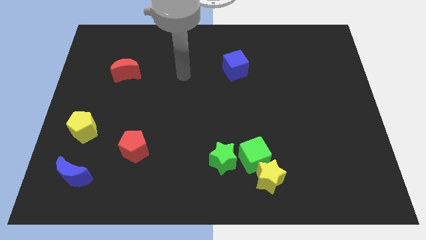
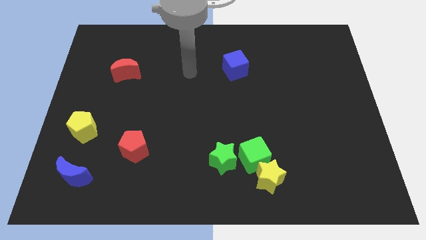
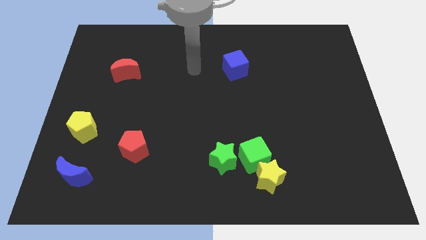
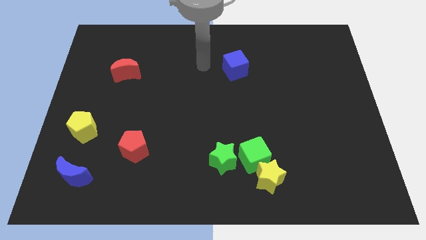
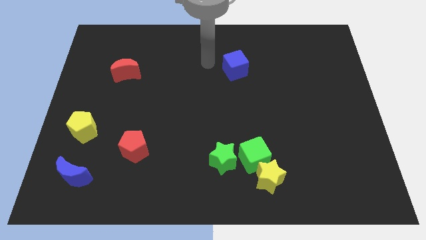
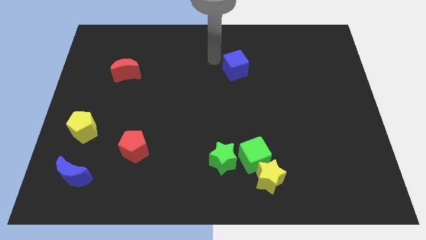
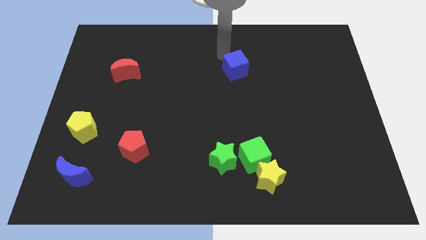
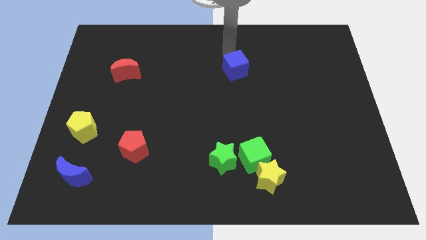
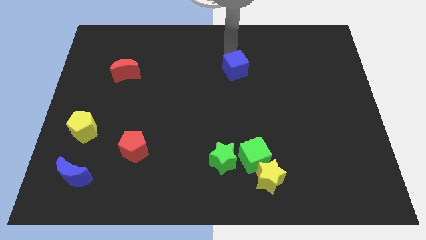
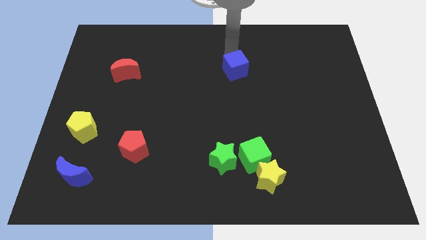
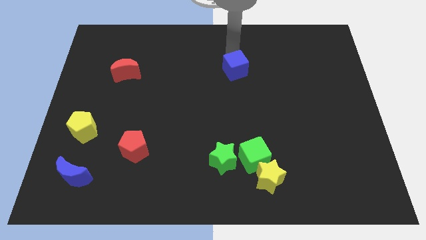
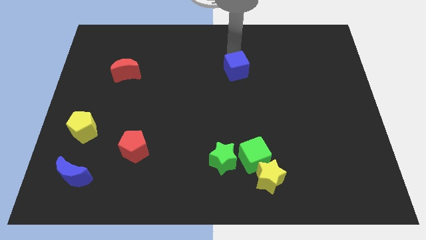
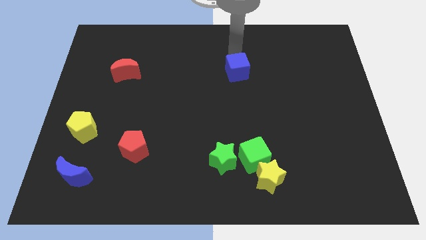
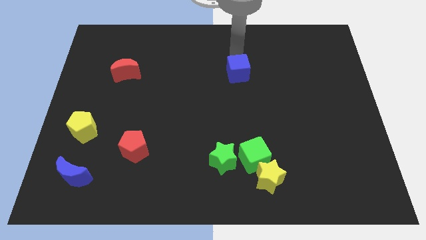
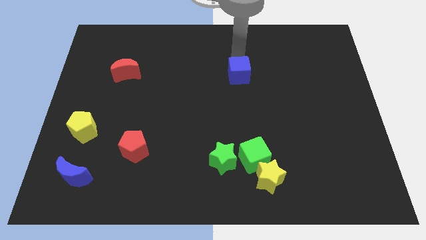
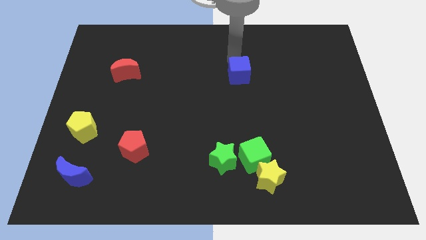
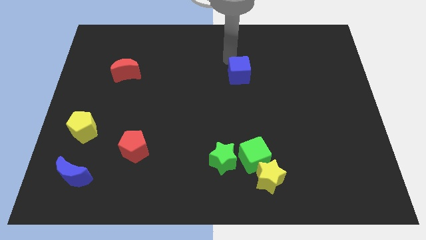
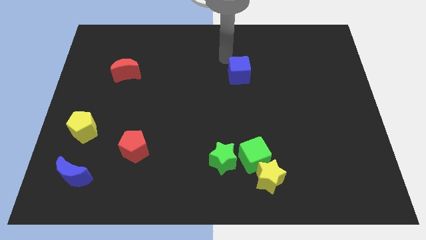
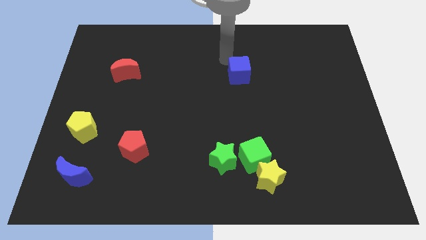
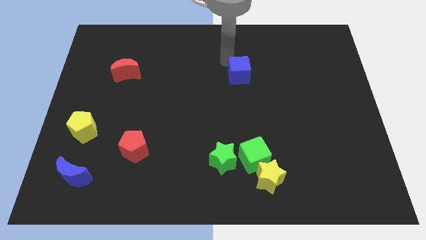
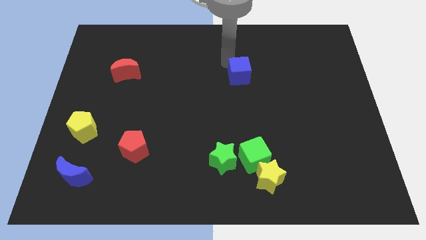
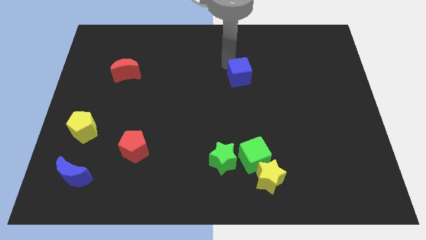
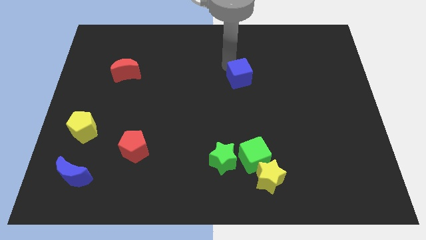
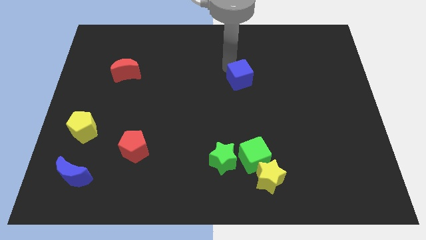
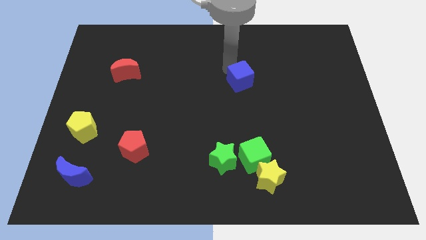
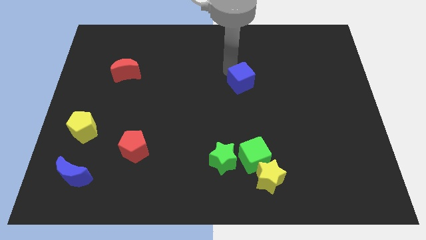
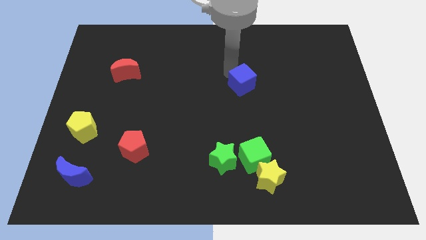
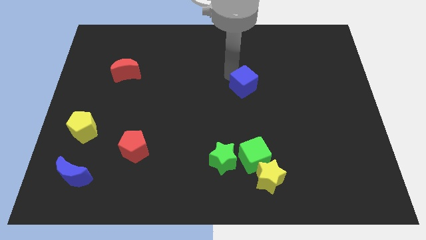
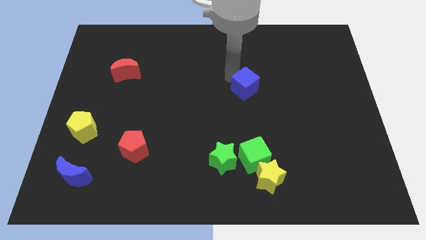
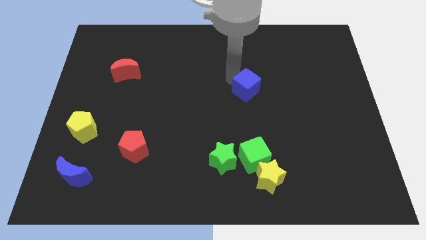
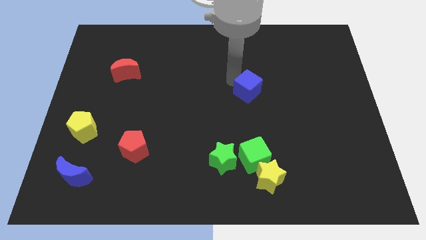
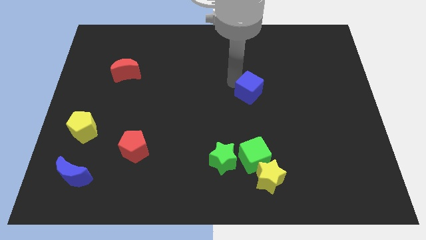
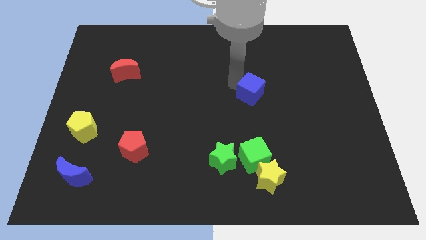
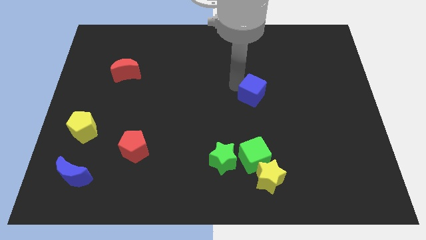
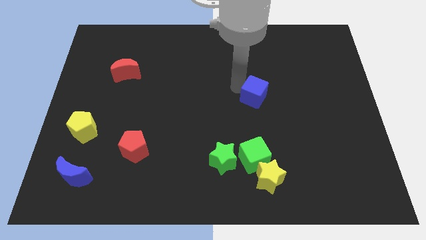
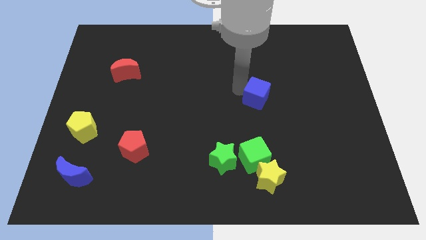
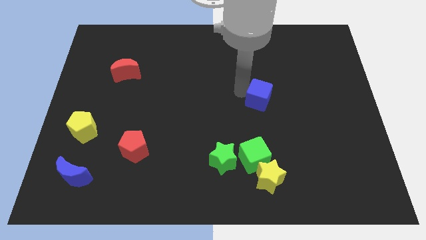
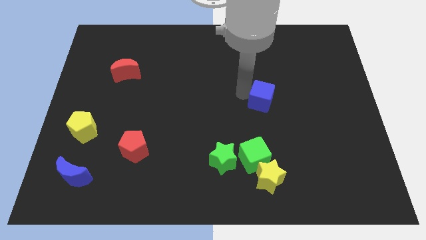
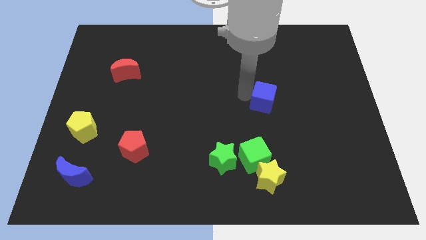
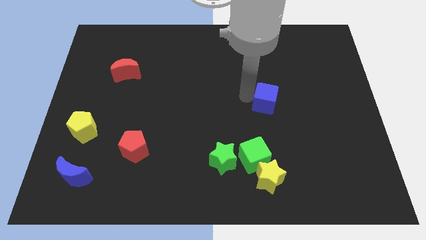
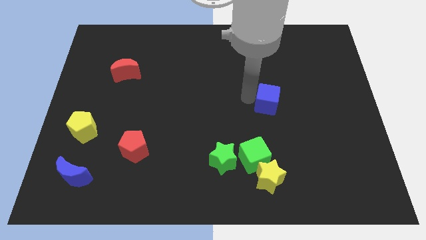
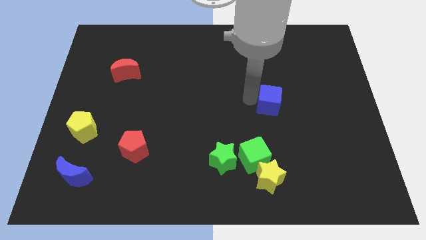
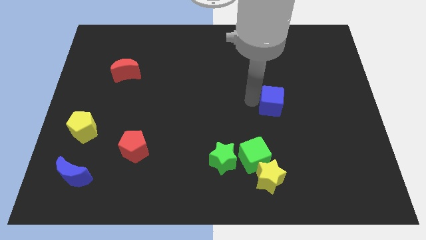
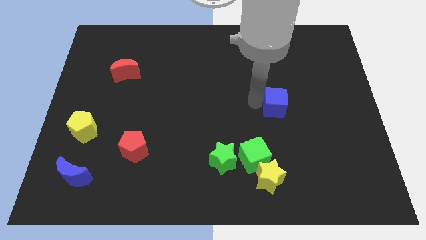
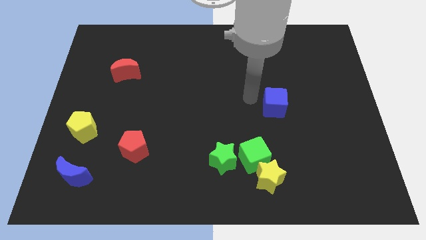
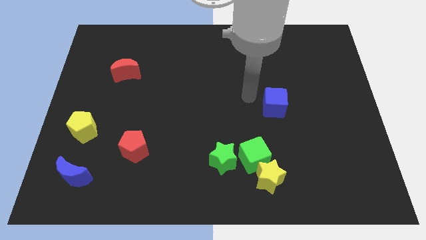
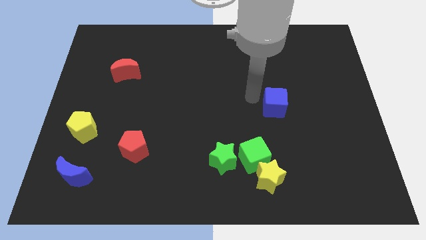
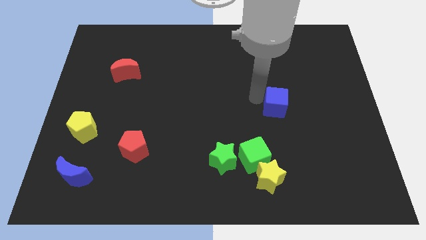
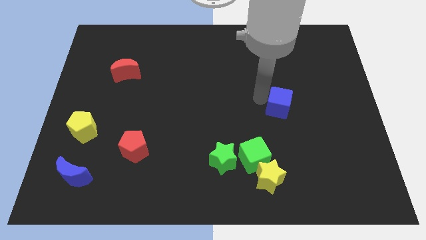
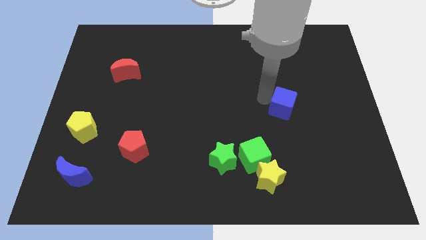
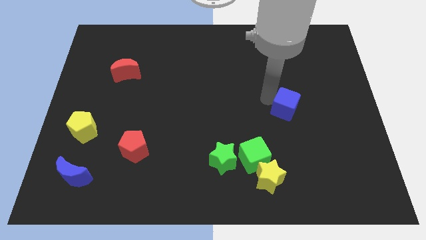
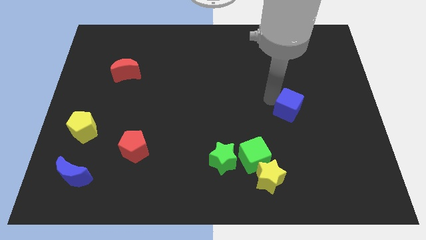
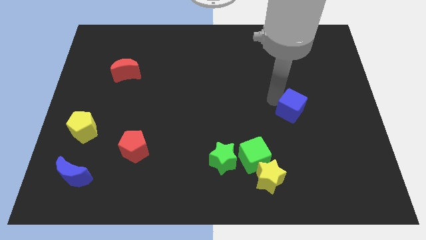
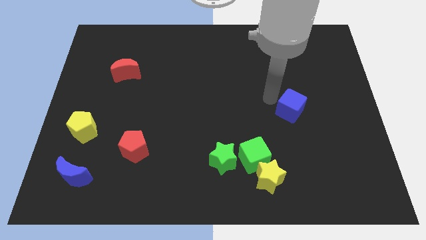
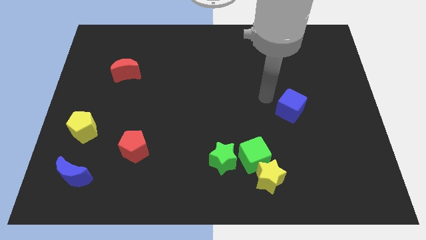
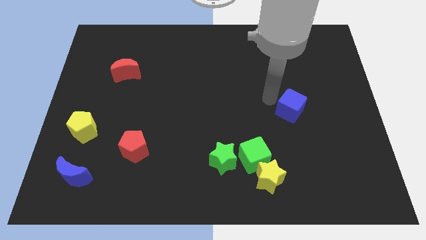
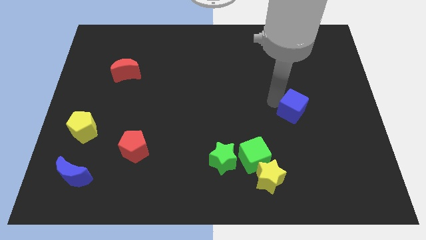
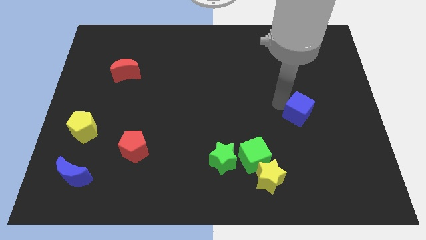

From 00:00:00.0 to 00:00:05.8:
slide the blue cube downwards and to the right

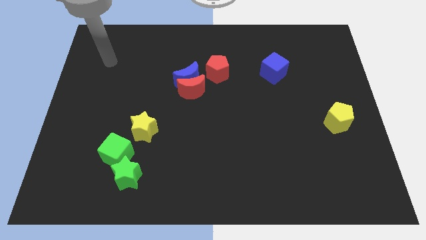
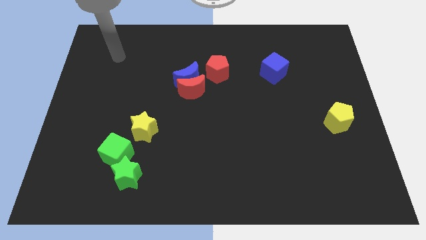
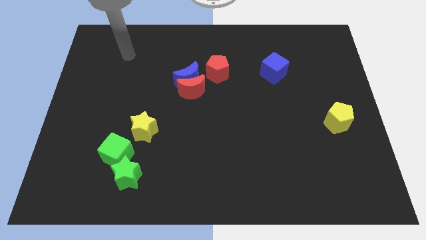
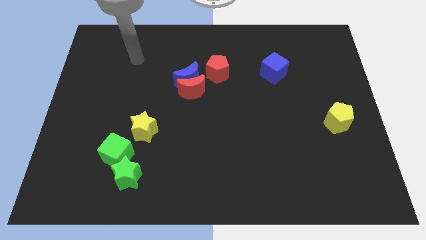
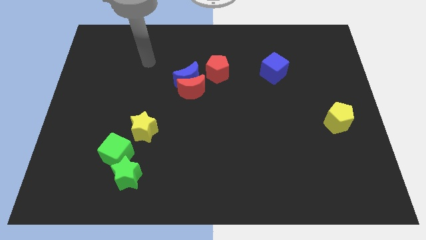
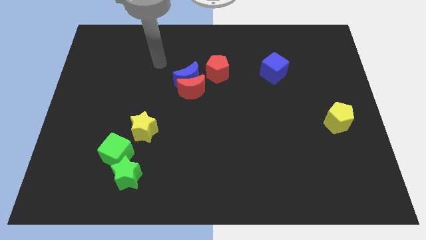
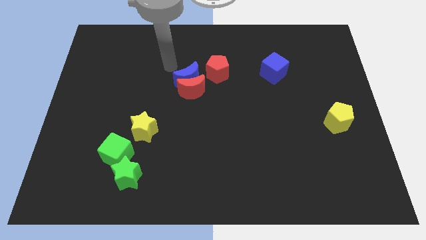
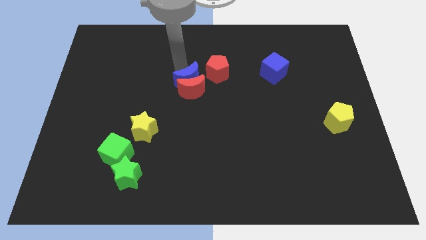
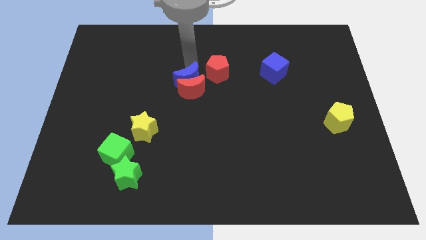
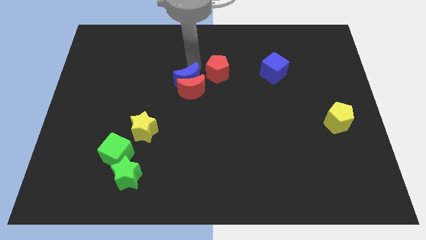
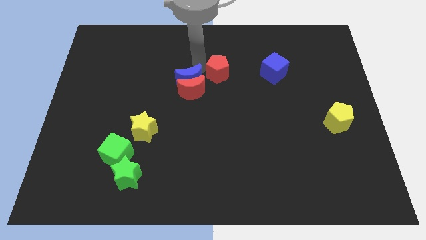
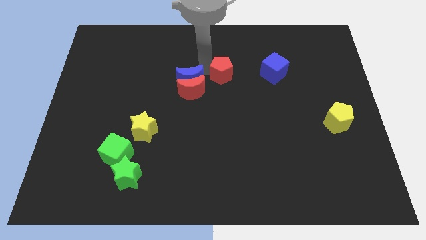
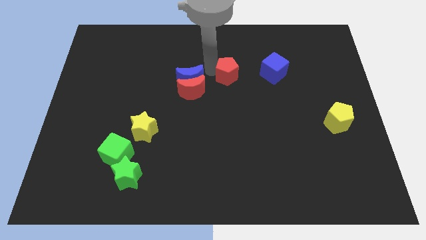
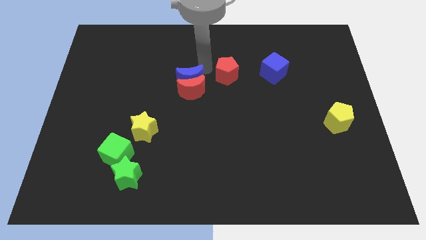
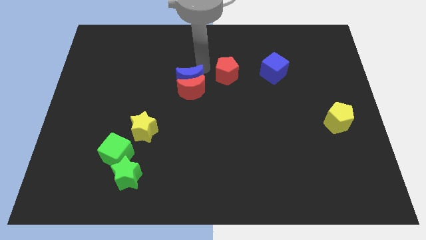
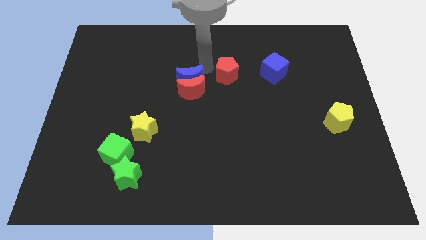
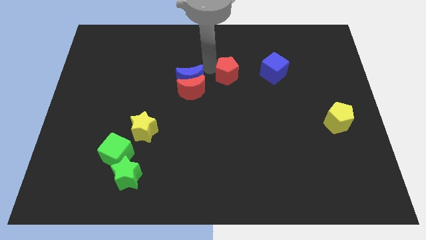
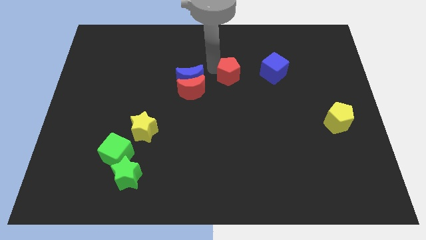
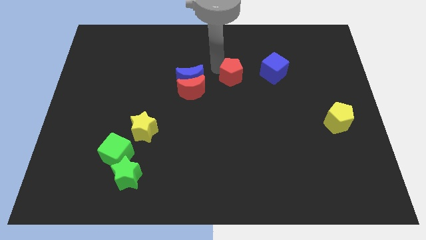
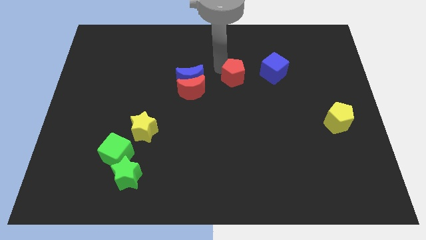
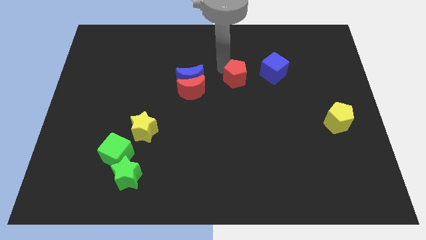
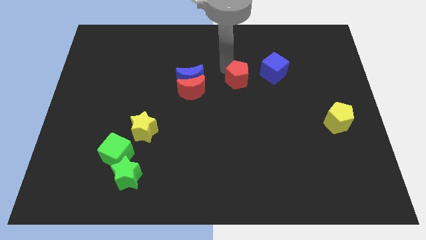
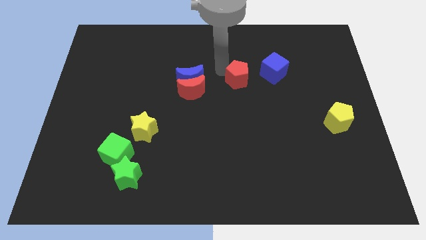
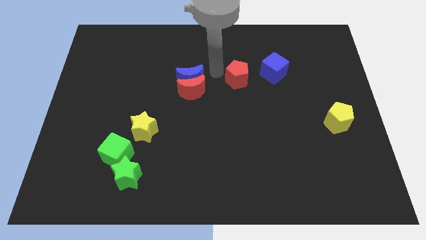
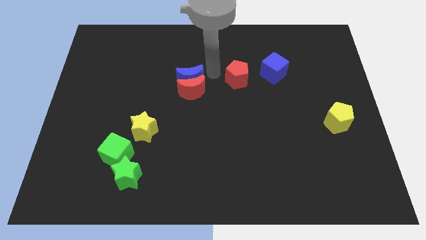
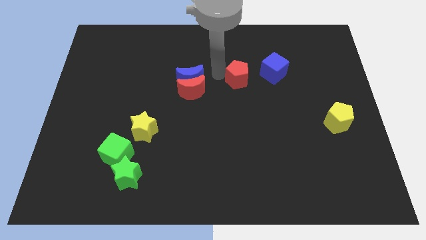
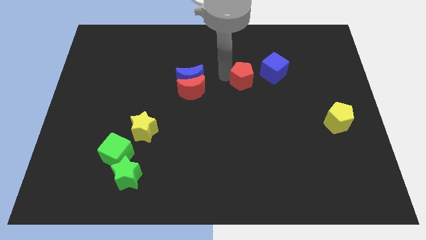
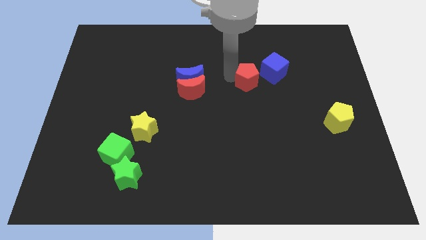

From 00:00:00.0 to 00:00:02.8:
slide the red pentagon a little right
